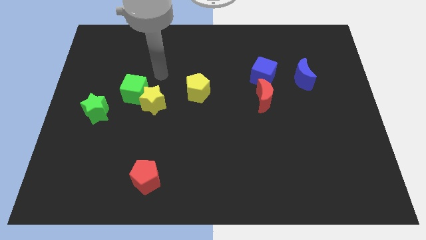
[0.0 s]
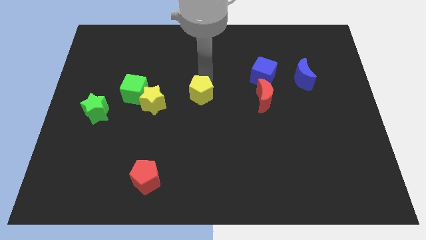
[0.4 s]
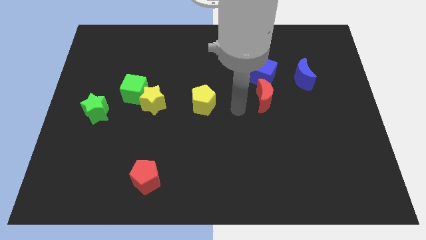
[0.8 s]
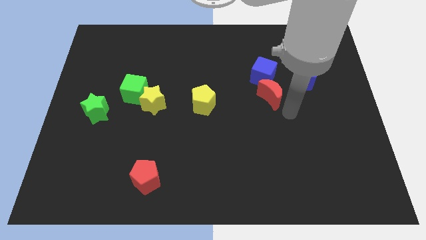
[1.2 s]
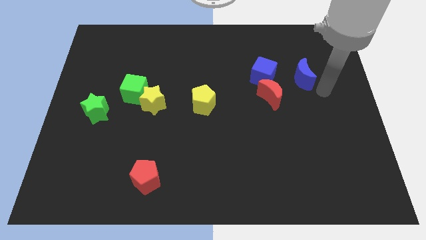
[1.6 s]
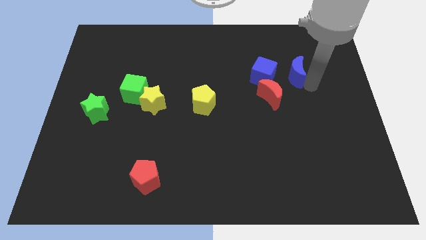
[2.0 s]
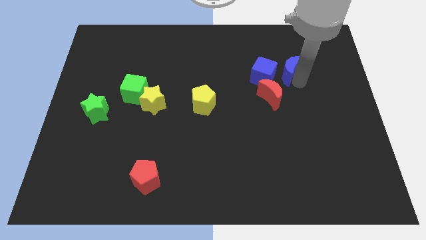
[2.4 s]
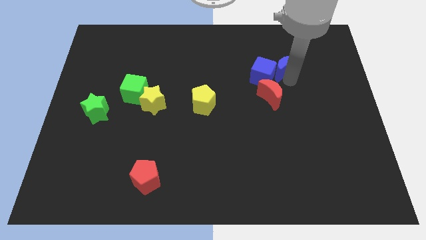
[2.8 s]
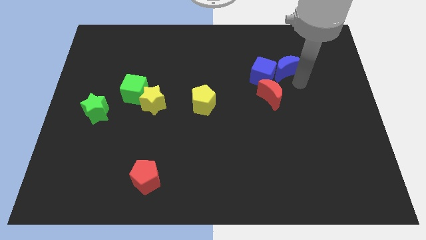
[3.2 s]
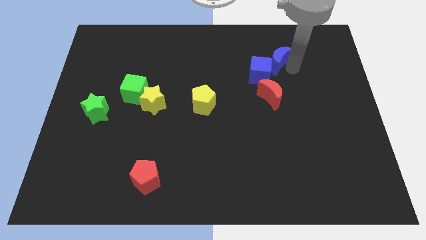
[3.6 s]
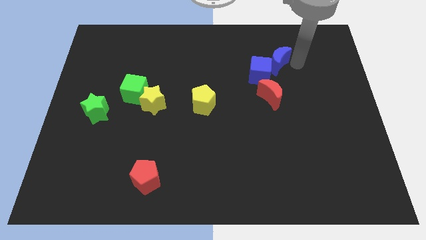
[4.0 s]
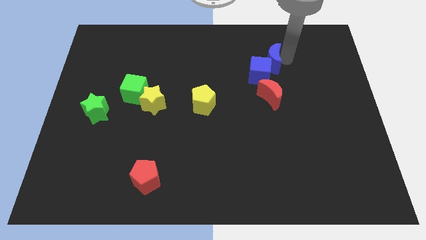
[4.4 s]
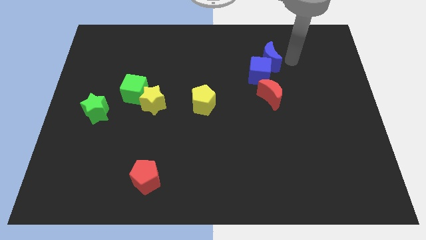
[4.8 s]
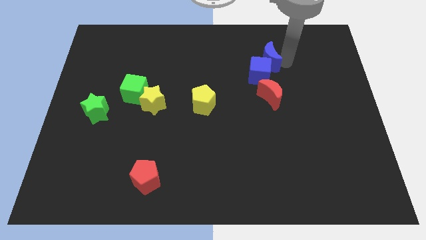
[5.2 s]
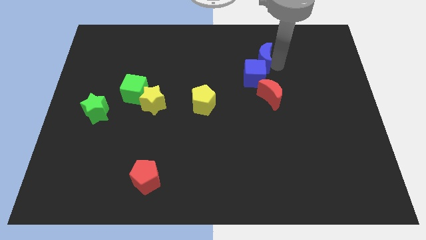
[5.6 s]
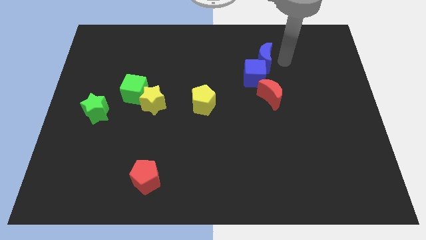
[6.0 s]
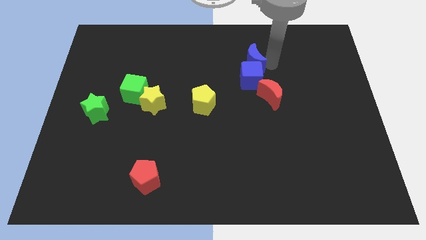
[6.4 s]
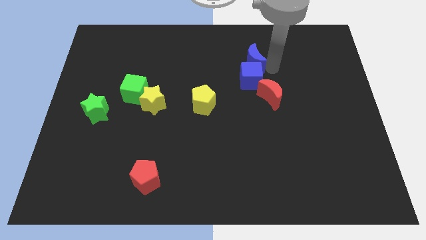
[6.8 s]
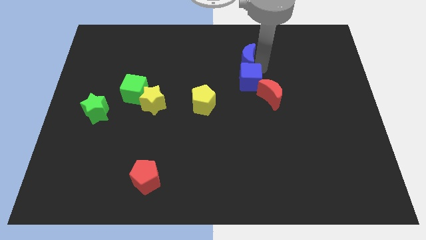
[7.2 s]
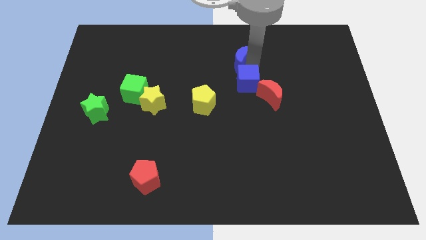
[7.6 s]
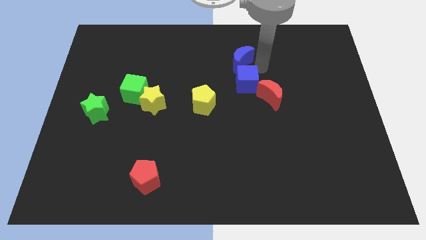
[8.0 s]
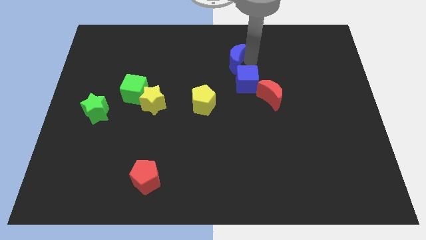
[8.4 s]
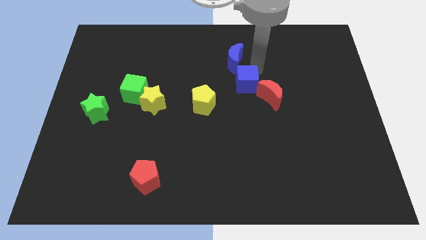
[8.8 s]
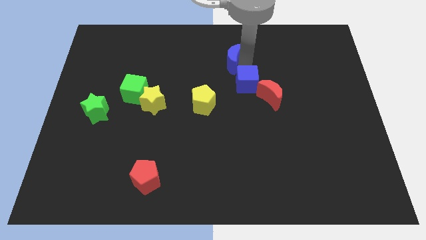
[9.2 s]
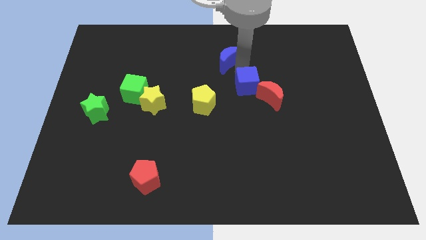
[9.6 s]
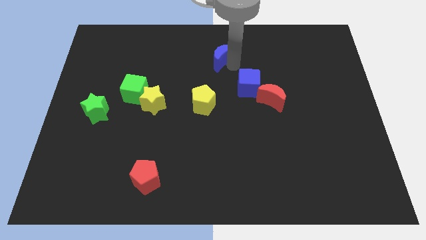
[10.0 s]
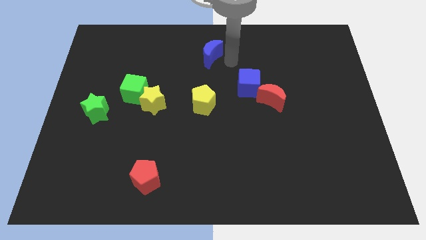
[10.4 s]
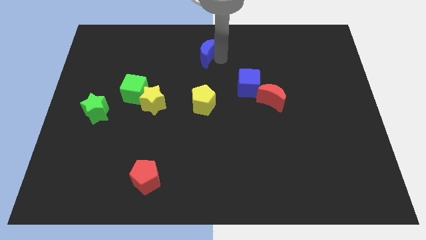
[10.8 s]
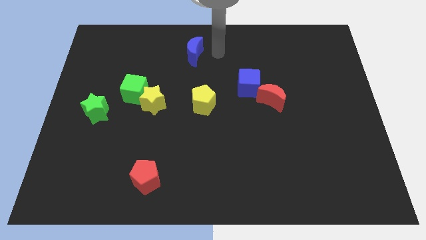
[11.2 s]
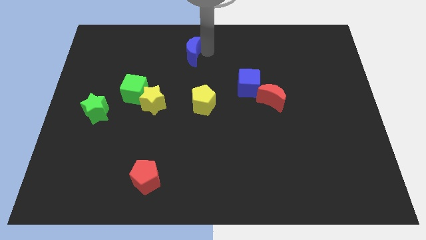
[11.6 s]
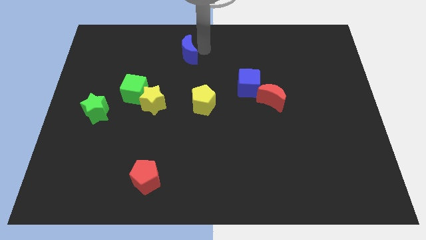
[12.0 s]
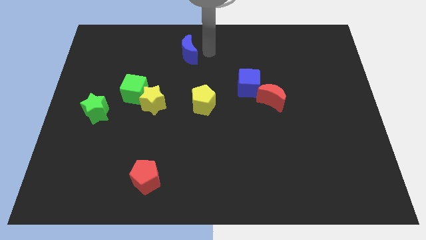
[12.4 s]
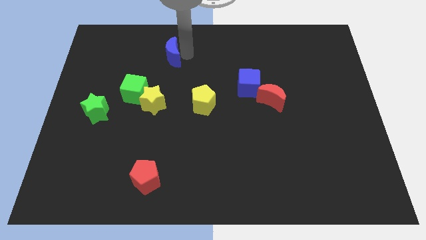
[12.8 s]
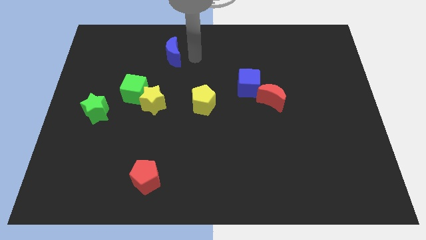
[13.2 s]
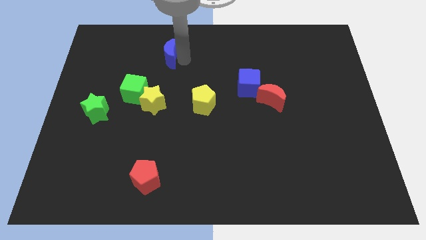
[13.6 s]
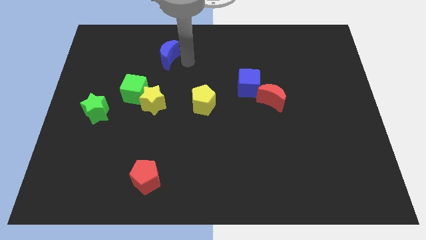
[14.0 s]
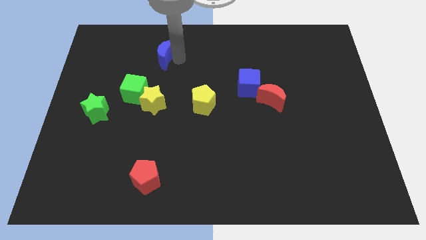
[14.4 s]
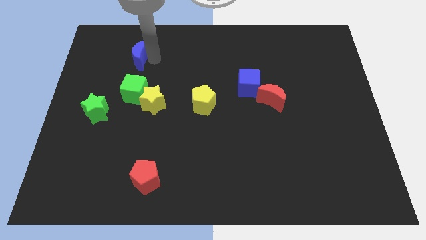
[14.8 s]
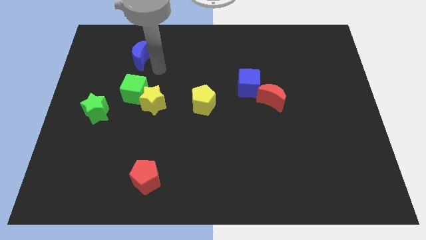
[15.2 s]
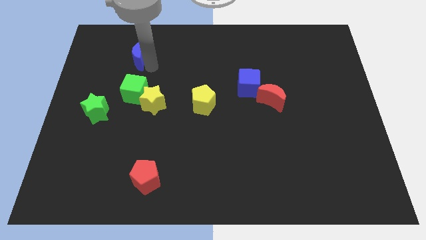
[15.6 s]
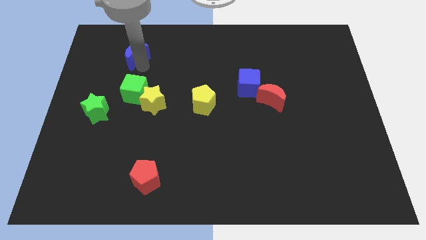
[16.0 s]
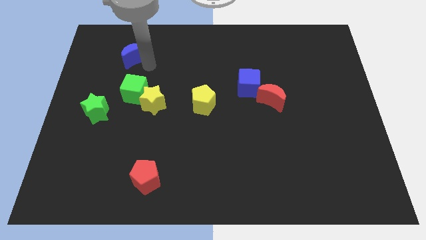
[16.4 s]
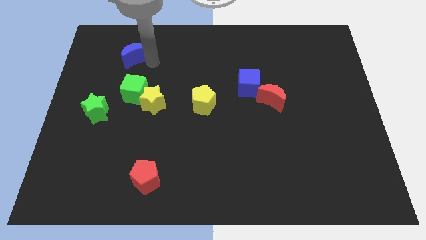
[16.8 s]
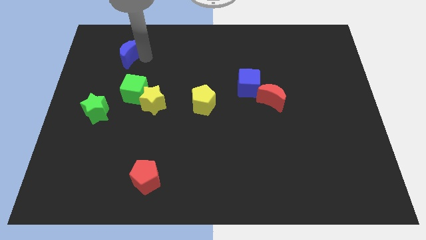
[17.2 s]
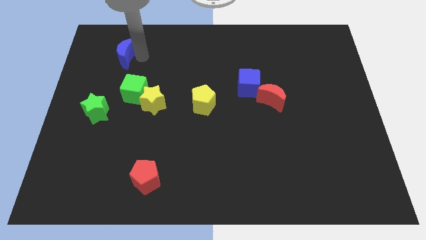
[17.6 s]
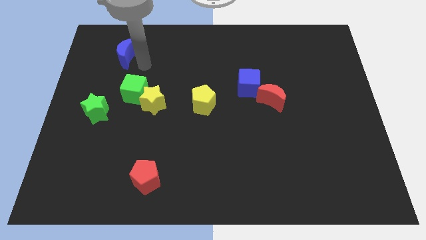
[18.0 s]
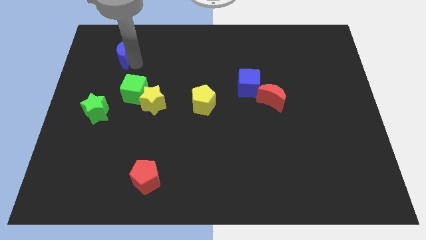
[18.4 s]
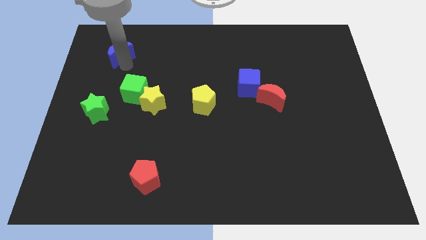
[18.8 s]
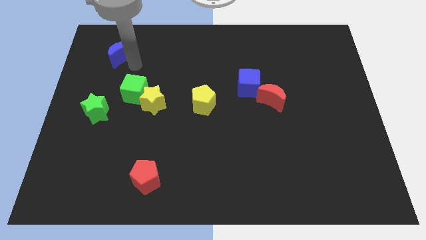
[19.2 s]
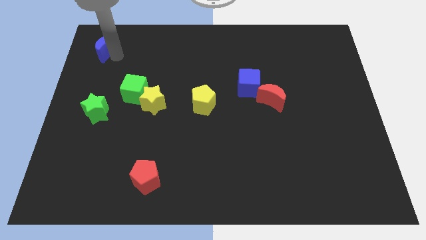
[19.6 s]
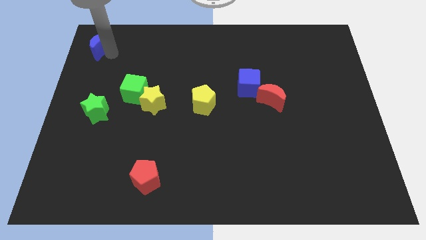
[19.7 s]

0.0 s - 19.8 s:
put the blue moon to the top left of the board

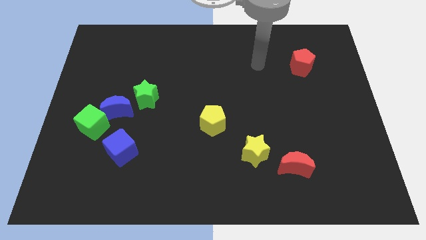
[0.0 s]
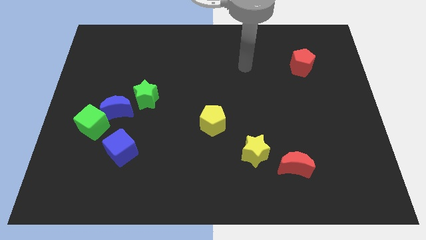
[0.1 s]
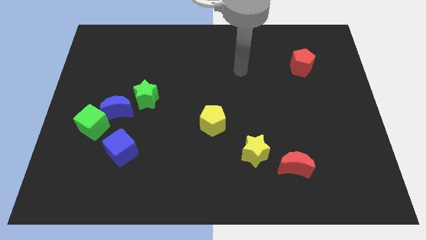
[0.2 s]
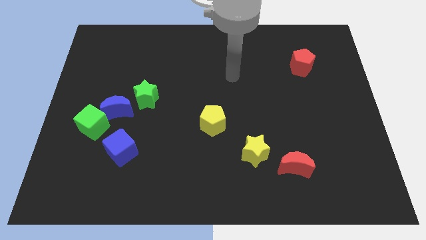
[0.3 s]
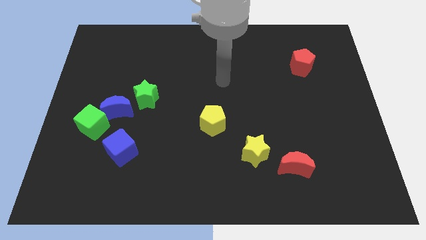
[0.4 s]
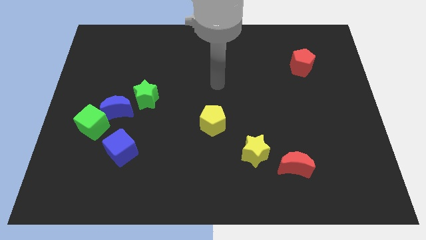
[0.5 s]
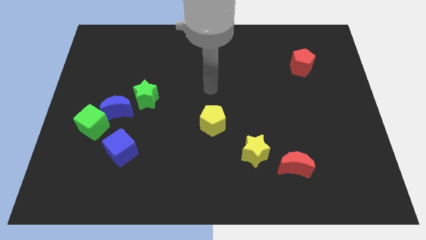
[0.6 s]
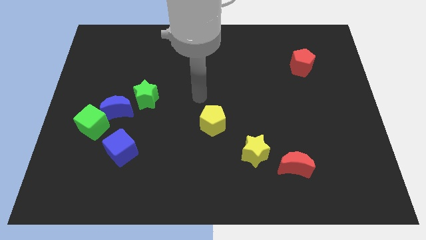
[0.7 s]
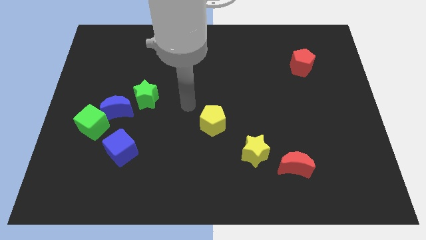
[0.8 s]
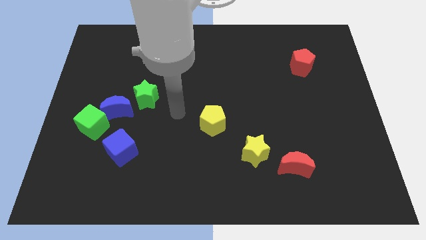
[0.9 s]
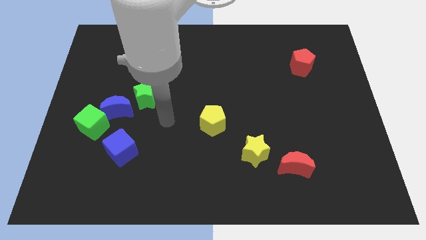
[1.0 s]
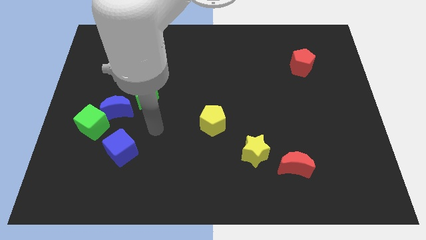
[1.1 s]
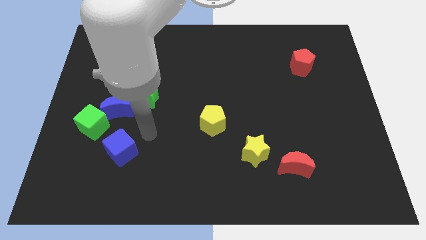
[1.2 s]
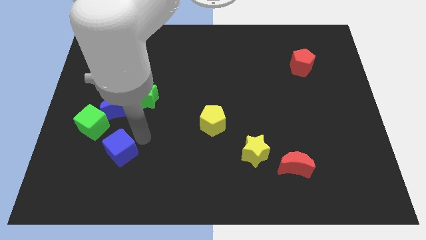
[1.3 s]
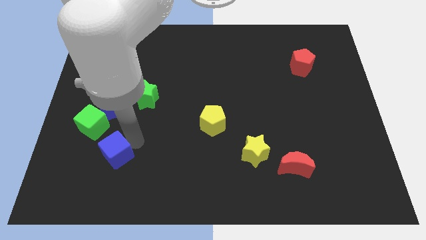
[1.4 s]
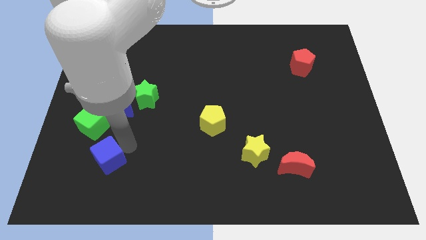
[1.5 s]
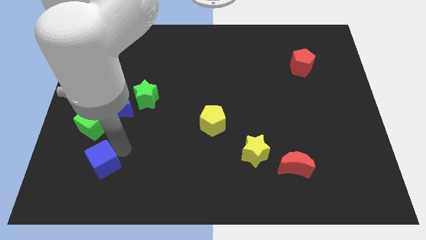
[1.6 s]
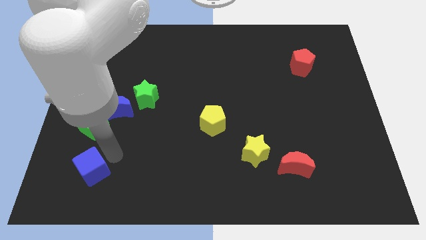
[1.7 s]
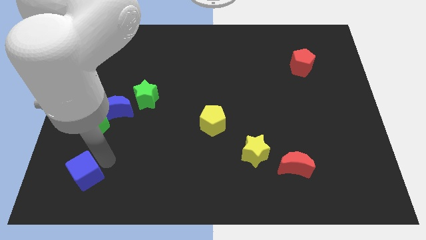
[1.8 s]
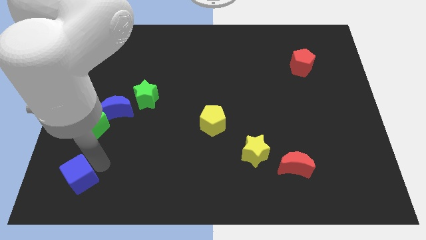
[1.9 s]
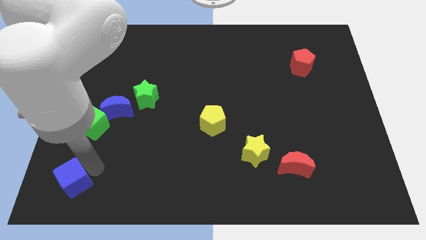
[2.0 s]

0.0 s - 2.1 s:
move the blue cube to the bottom left
